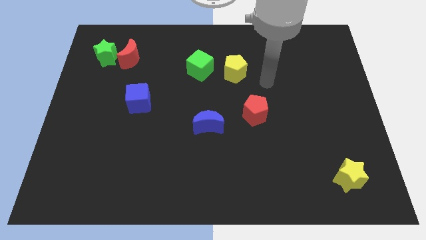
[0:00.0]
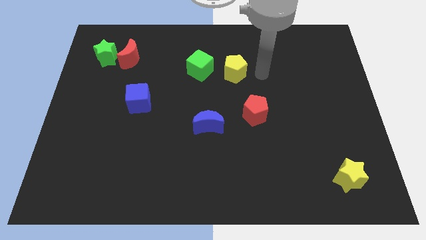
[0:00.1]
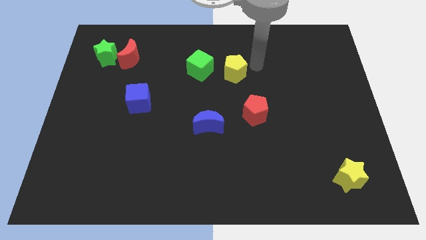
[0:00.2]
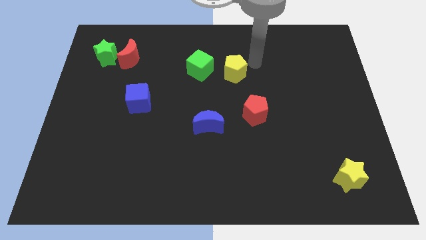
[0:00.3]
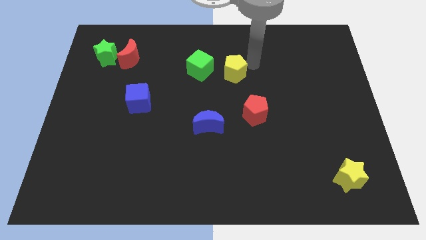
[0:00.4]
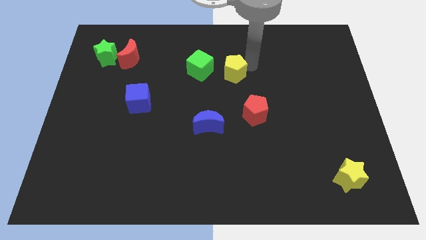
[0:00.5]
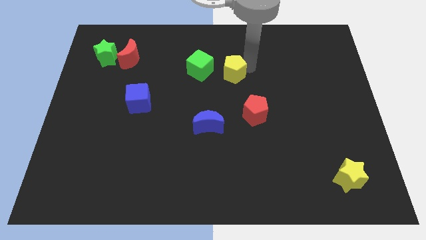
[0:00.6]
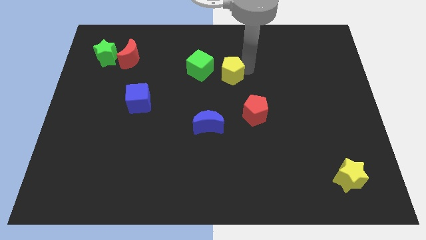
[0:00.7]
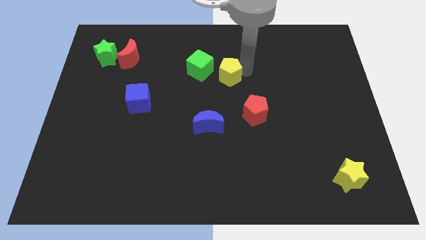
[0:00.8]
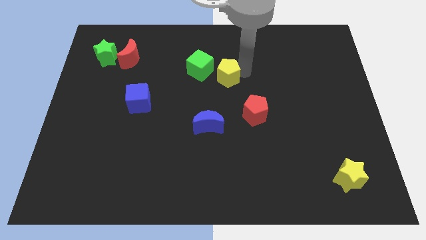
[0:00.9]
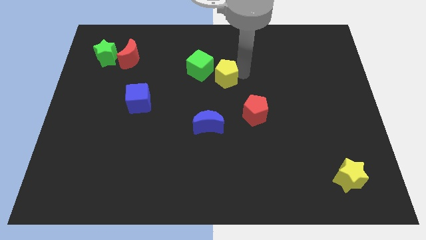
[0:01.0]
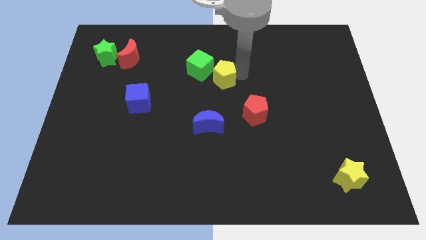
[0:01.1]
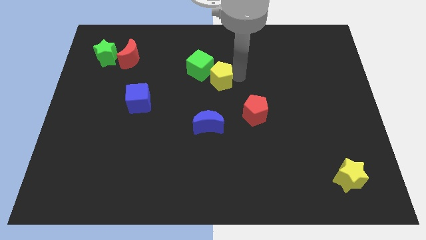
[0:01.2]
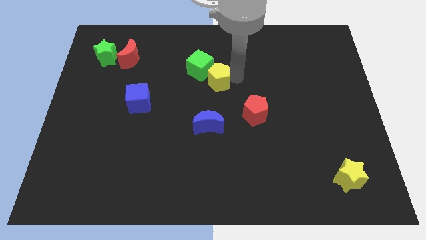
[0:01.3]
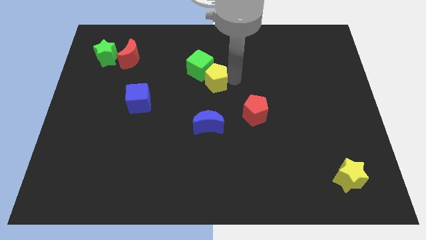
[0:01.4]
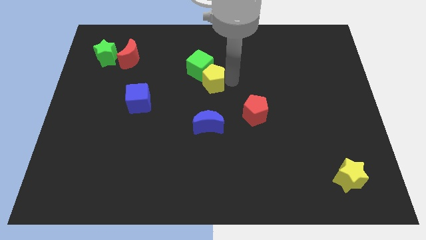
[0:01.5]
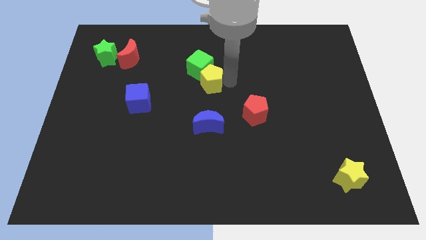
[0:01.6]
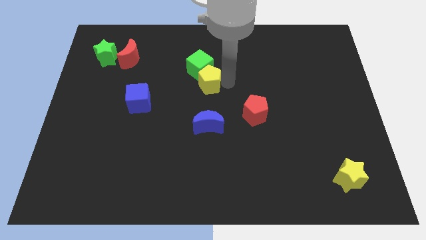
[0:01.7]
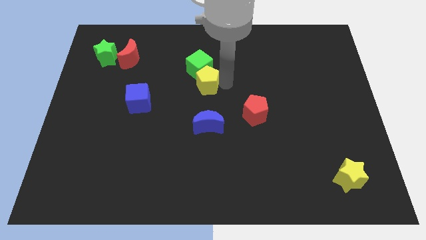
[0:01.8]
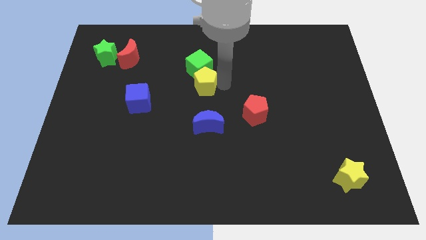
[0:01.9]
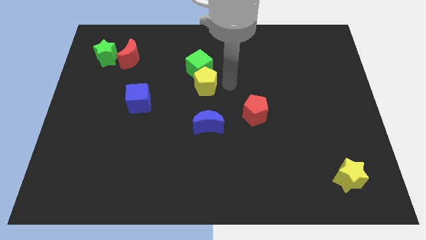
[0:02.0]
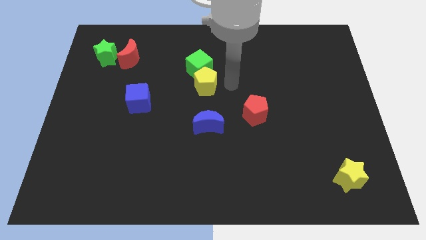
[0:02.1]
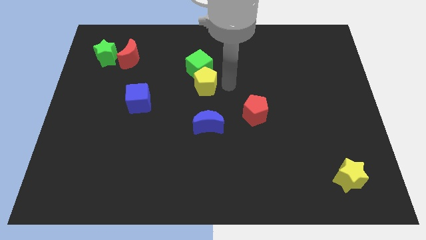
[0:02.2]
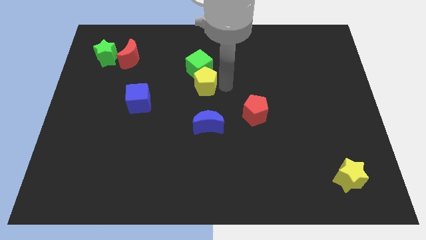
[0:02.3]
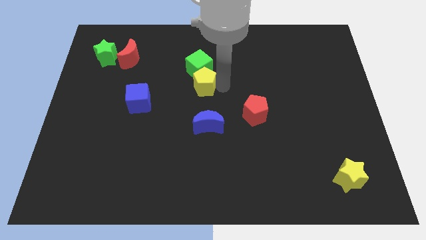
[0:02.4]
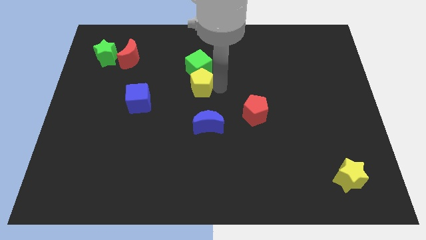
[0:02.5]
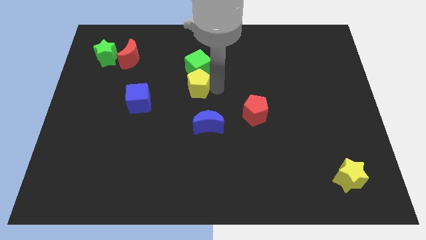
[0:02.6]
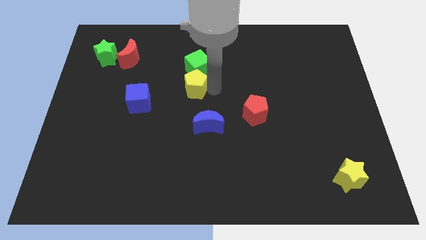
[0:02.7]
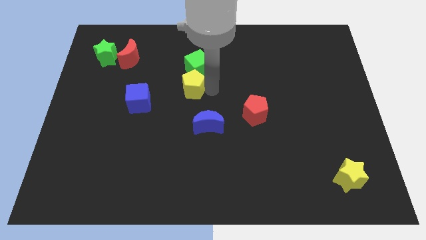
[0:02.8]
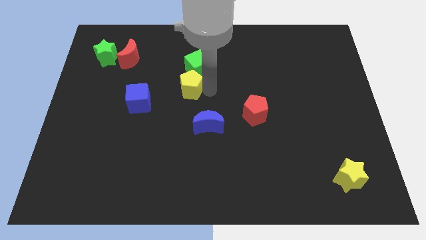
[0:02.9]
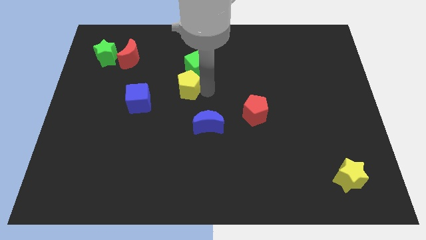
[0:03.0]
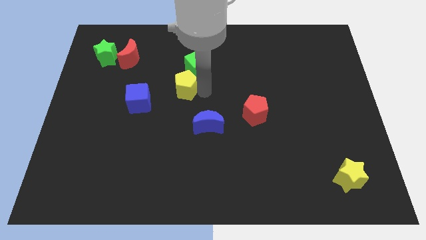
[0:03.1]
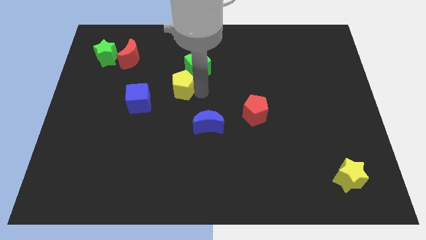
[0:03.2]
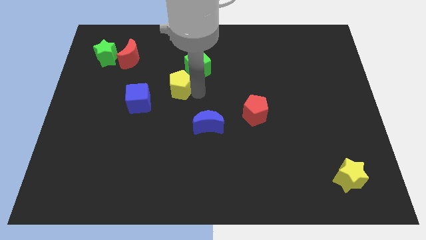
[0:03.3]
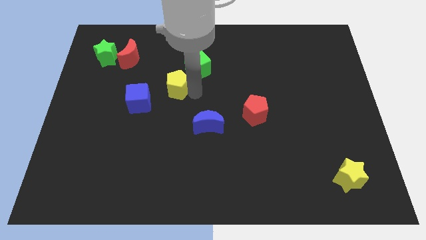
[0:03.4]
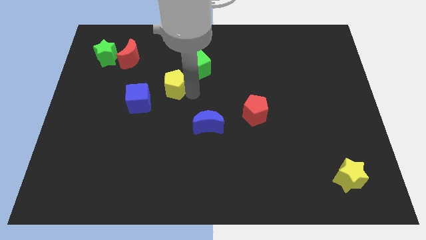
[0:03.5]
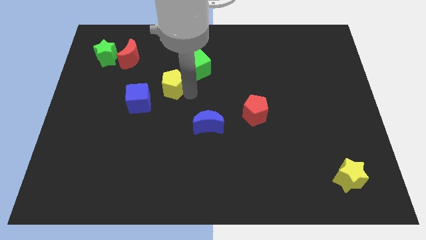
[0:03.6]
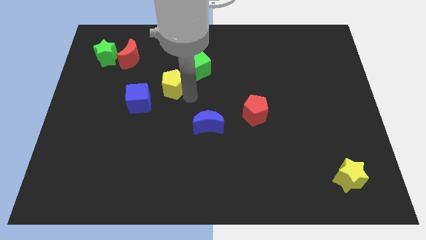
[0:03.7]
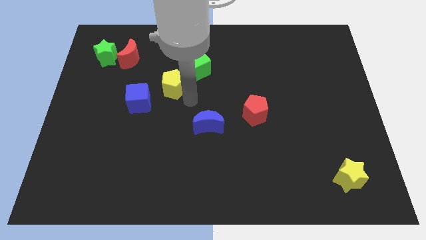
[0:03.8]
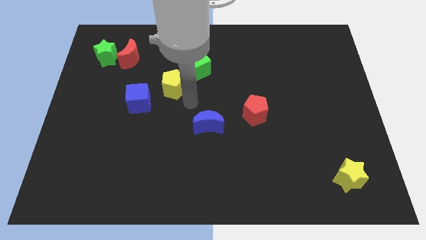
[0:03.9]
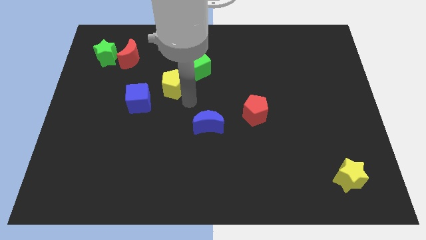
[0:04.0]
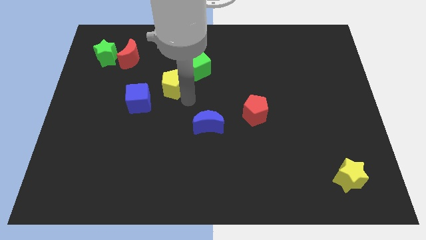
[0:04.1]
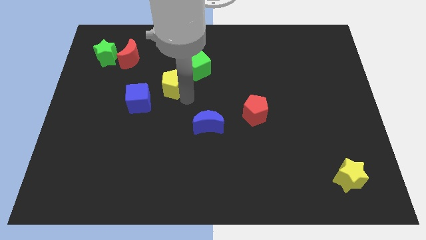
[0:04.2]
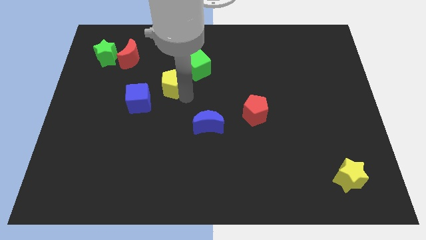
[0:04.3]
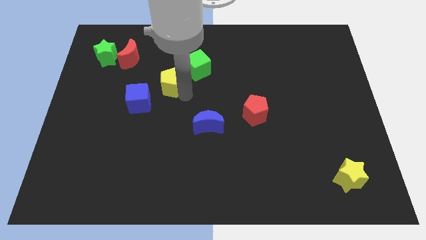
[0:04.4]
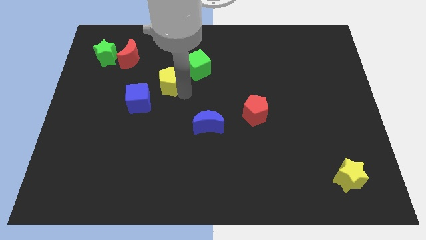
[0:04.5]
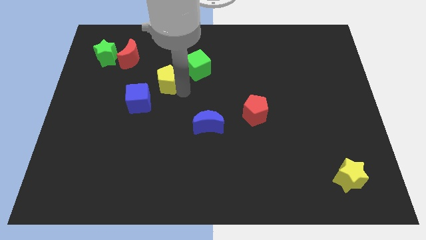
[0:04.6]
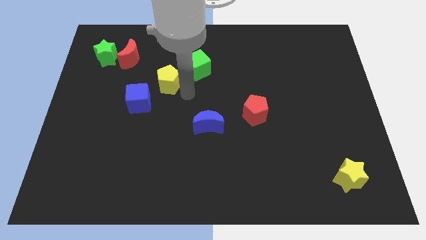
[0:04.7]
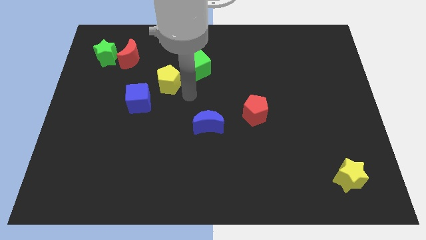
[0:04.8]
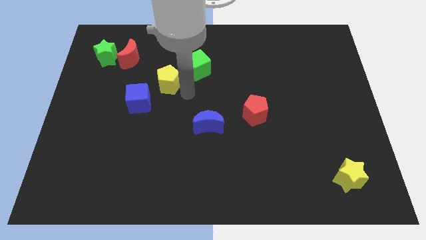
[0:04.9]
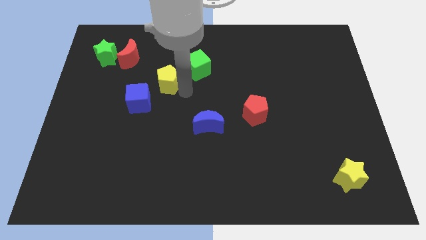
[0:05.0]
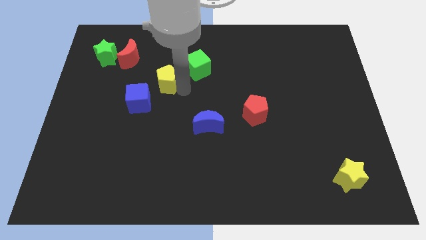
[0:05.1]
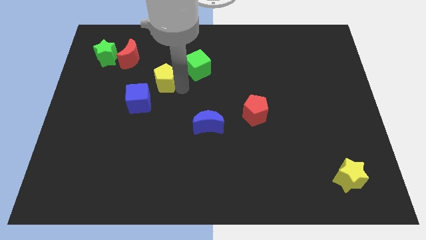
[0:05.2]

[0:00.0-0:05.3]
slide the yellow pentagon to the bottom right of the red moon

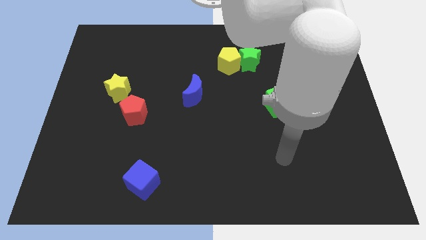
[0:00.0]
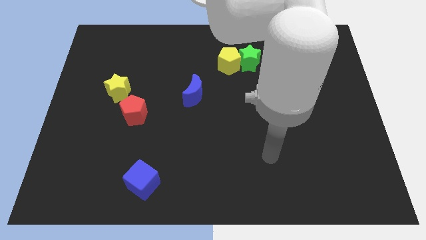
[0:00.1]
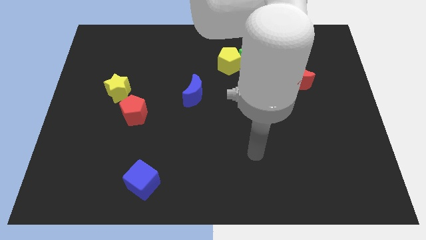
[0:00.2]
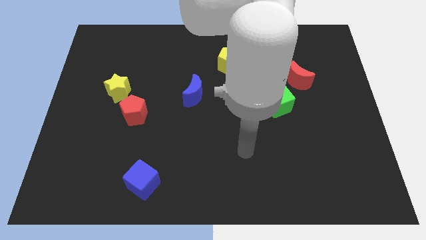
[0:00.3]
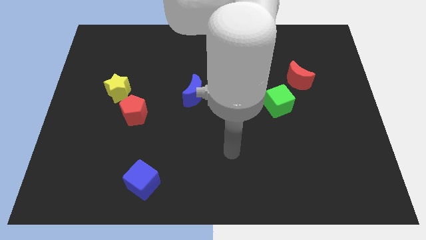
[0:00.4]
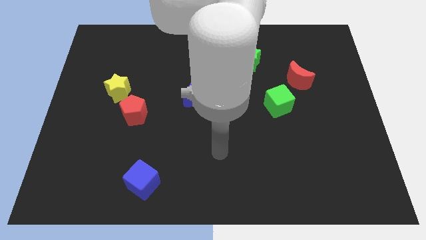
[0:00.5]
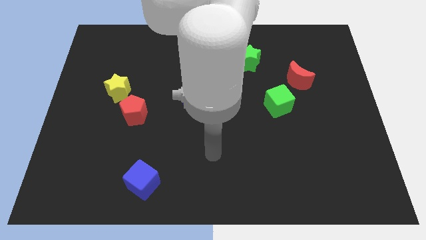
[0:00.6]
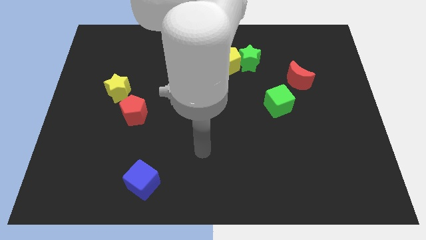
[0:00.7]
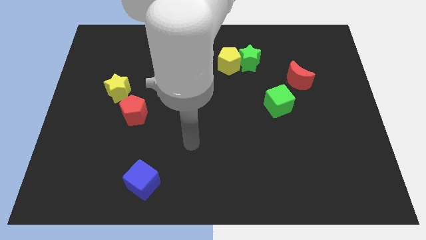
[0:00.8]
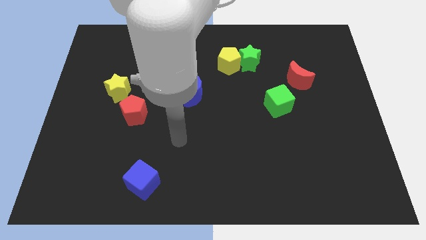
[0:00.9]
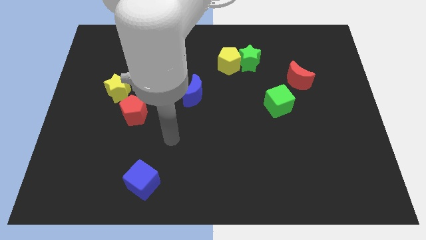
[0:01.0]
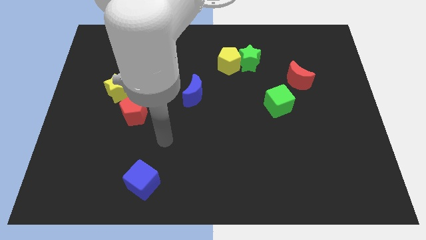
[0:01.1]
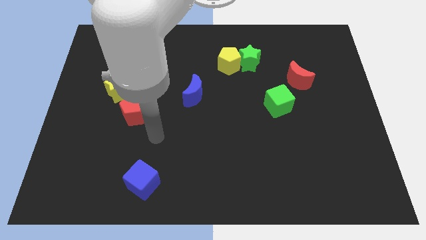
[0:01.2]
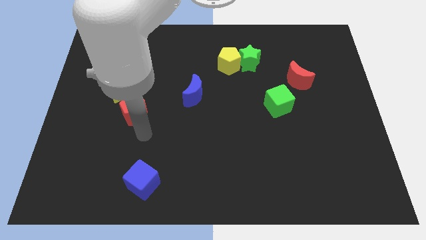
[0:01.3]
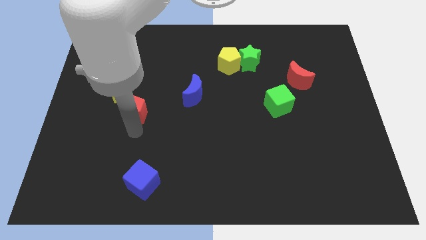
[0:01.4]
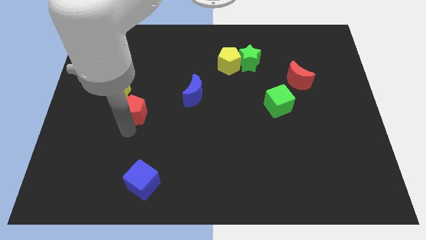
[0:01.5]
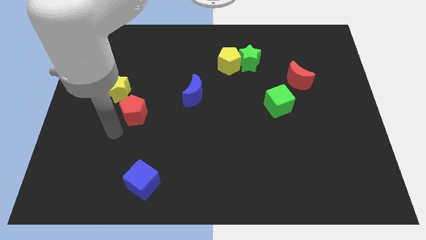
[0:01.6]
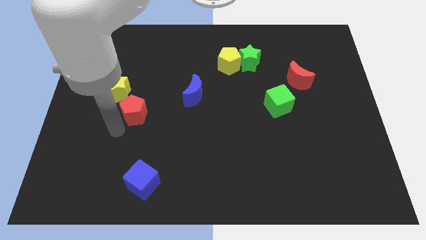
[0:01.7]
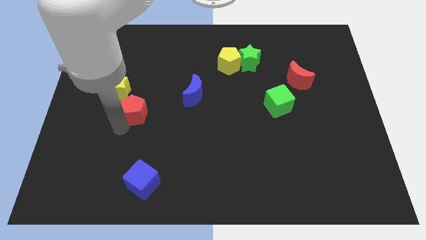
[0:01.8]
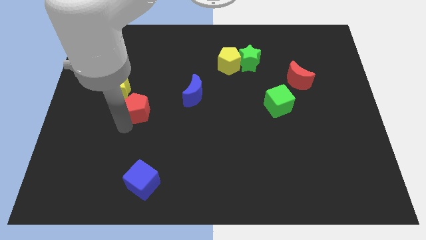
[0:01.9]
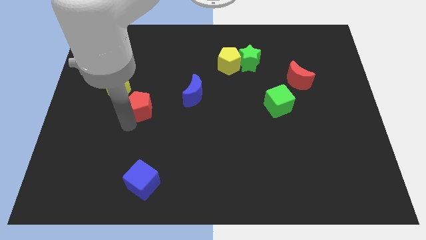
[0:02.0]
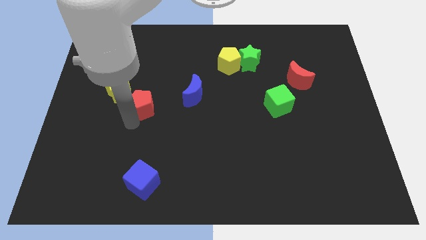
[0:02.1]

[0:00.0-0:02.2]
slide the red pentagon just right of the yellow star
